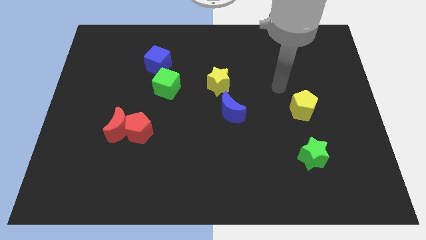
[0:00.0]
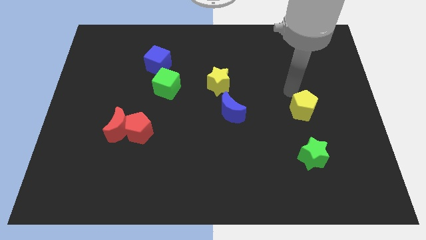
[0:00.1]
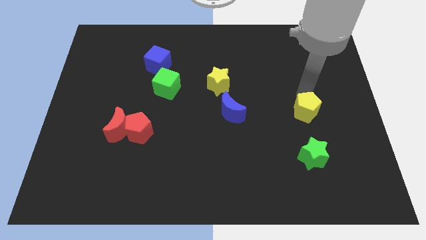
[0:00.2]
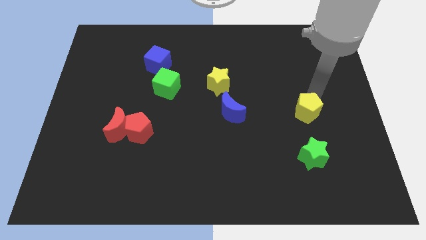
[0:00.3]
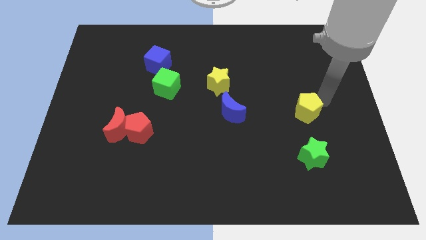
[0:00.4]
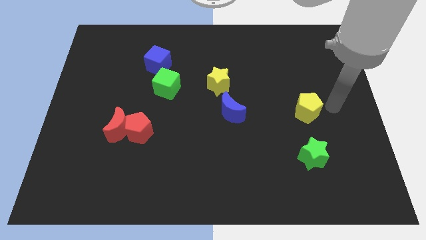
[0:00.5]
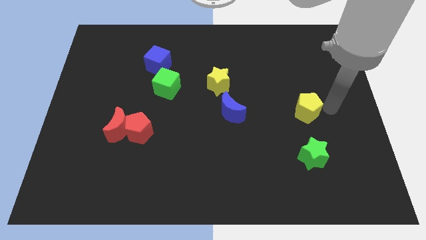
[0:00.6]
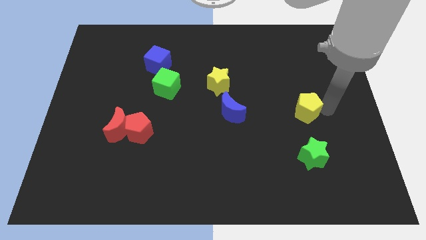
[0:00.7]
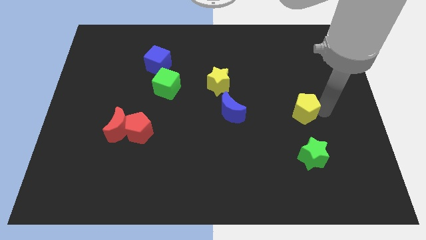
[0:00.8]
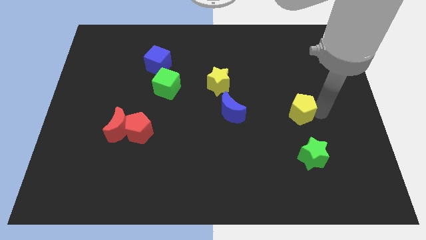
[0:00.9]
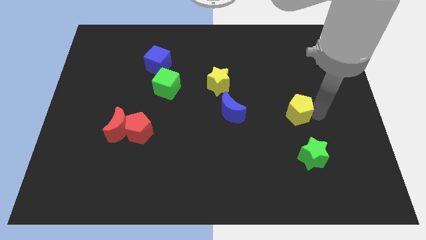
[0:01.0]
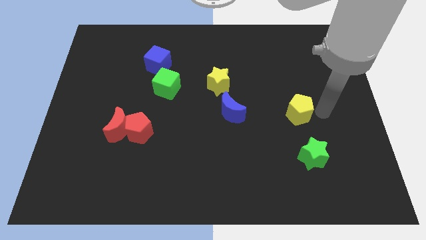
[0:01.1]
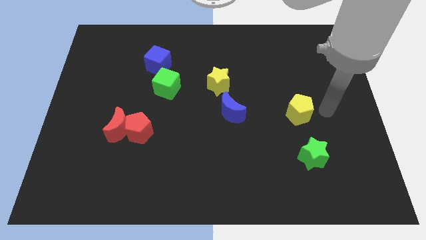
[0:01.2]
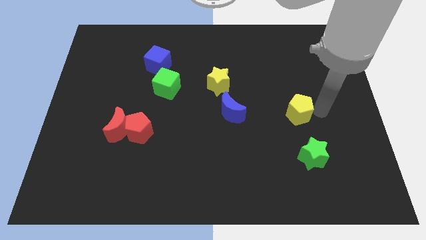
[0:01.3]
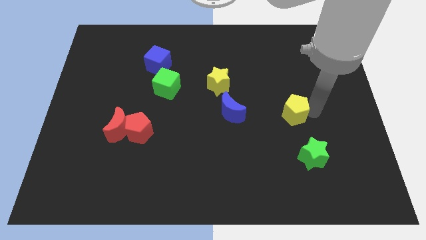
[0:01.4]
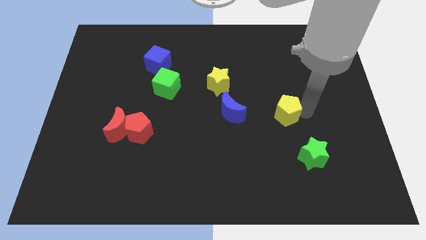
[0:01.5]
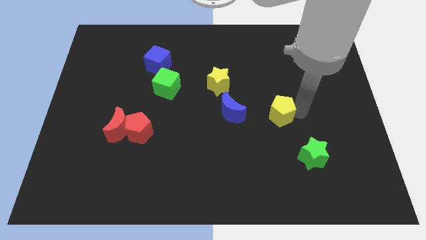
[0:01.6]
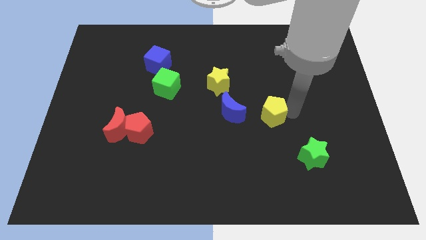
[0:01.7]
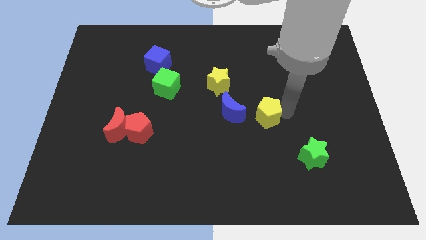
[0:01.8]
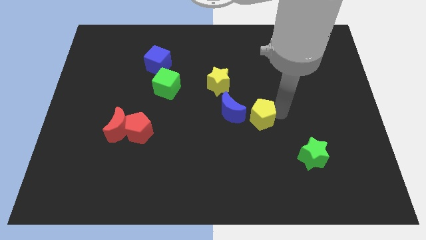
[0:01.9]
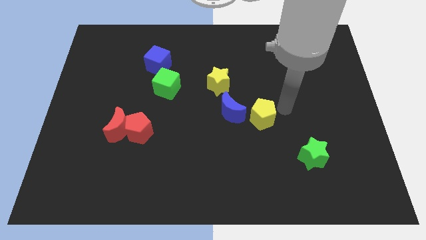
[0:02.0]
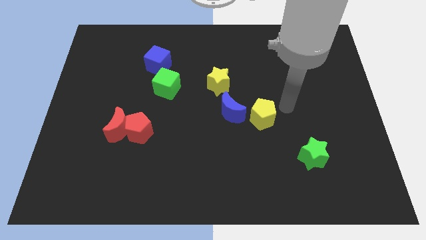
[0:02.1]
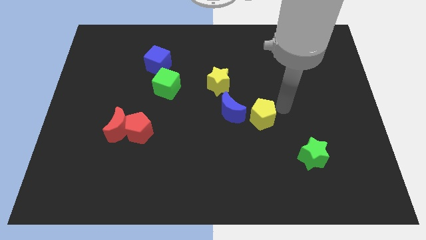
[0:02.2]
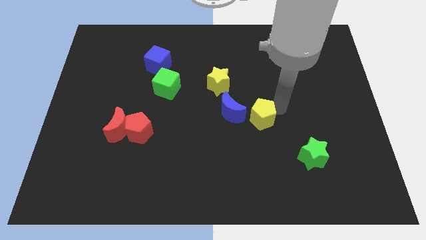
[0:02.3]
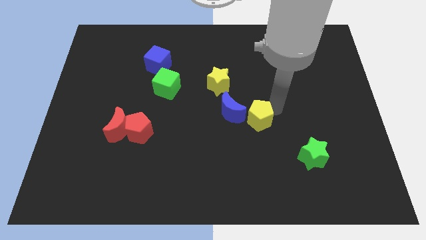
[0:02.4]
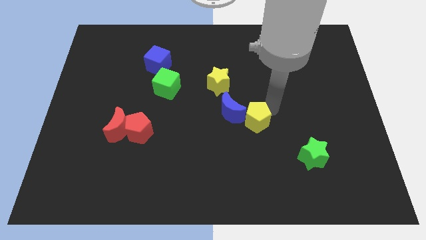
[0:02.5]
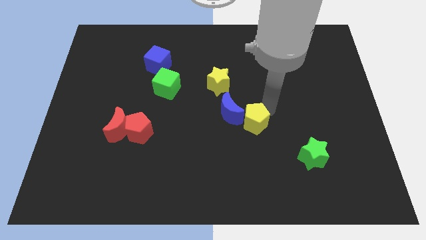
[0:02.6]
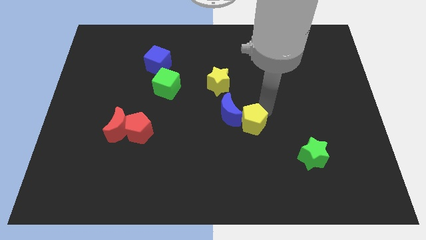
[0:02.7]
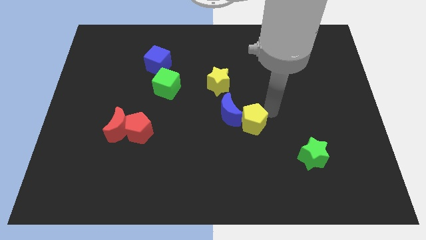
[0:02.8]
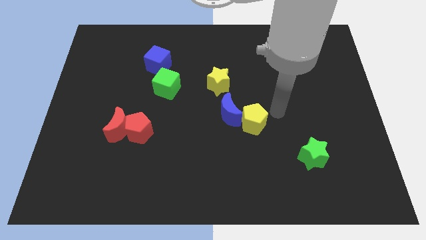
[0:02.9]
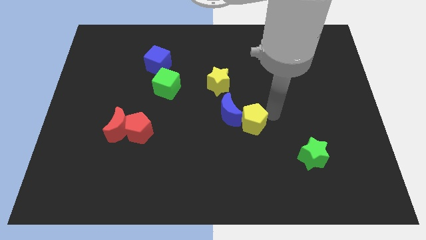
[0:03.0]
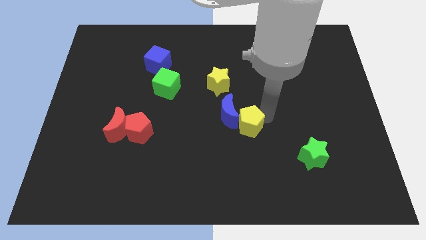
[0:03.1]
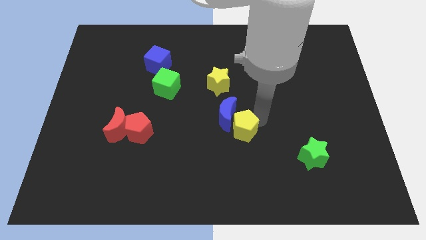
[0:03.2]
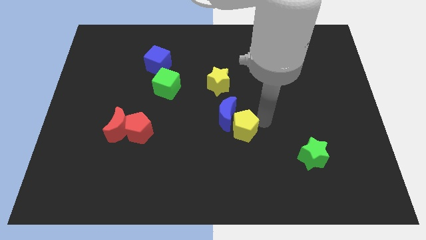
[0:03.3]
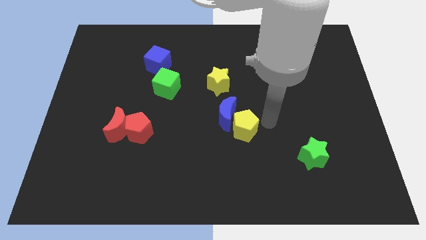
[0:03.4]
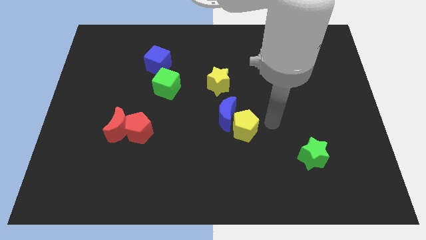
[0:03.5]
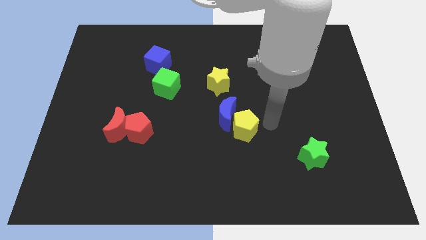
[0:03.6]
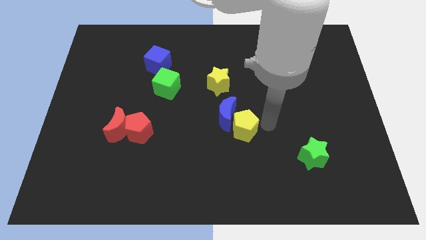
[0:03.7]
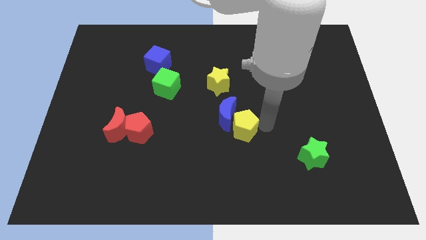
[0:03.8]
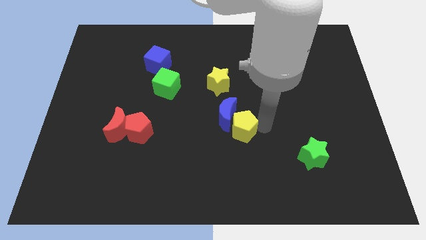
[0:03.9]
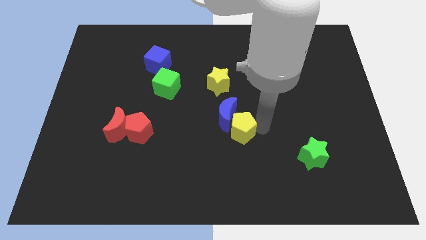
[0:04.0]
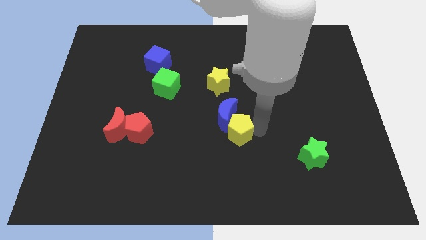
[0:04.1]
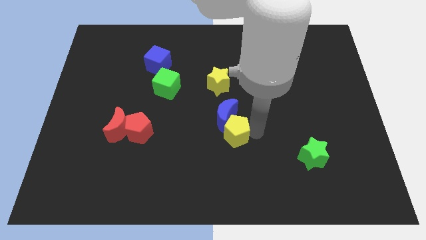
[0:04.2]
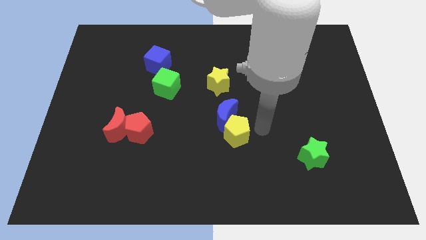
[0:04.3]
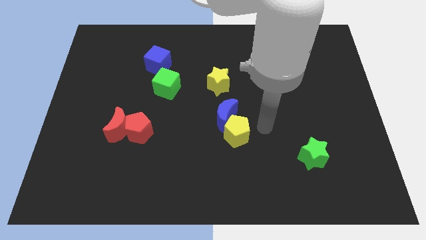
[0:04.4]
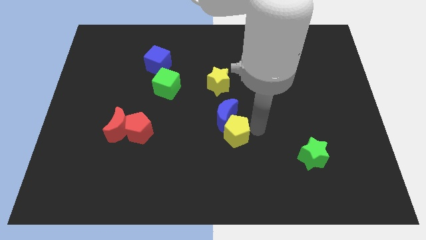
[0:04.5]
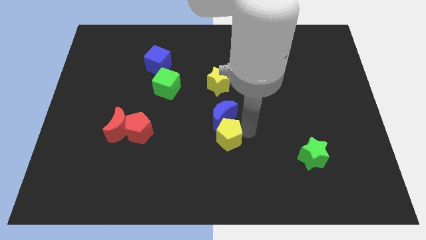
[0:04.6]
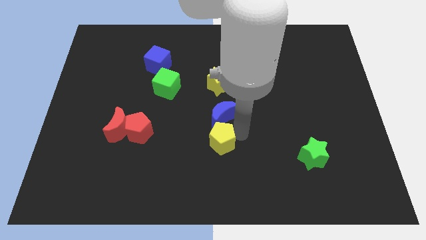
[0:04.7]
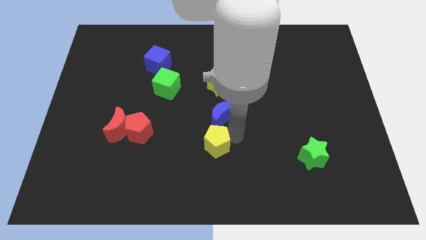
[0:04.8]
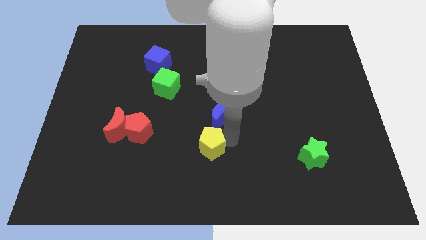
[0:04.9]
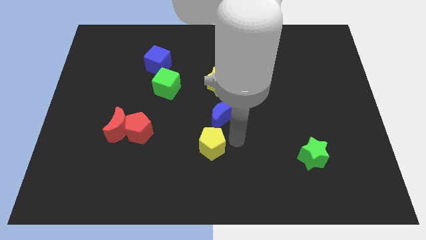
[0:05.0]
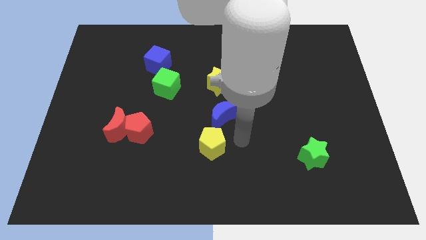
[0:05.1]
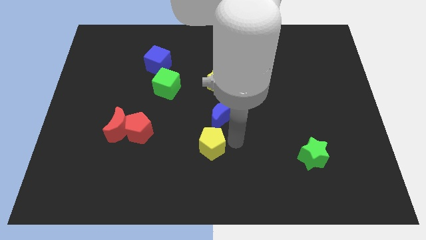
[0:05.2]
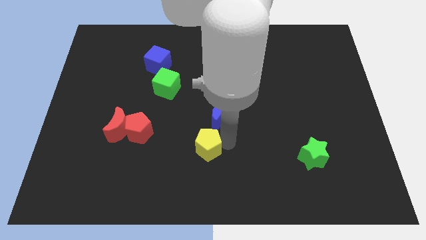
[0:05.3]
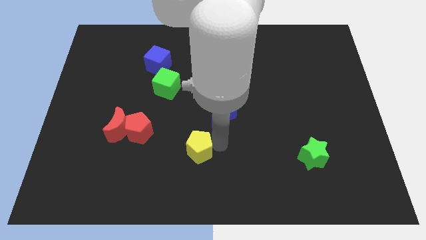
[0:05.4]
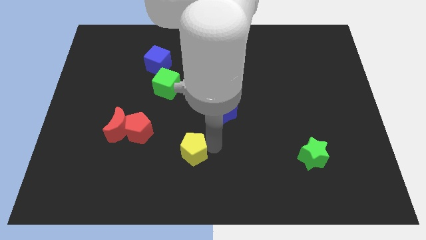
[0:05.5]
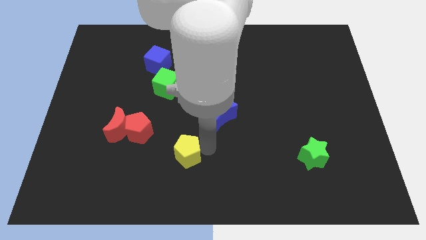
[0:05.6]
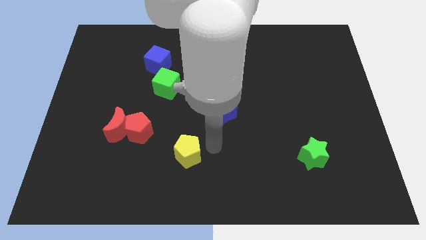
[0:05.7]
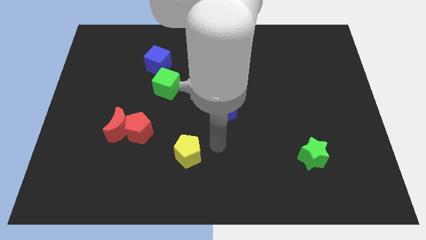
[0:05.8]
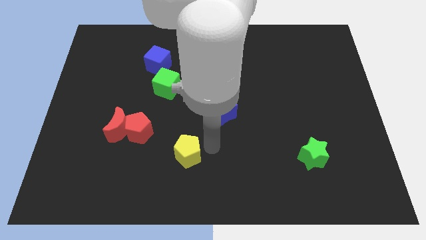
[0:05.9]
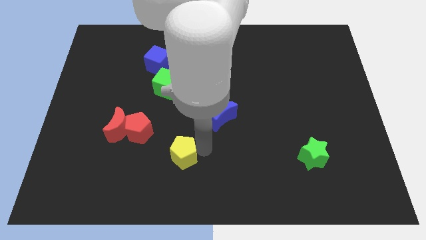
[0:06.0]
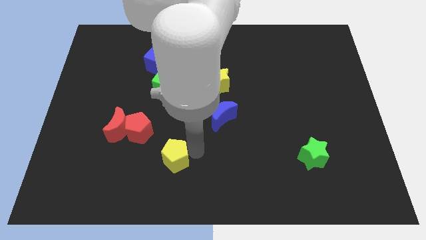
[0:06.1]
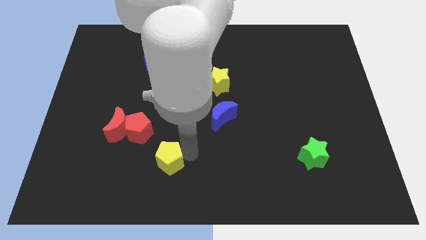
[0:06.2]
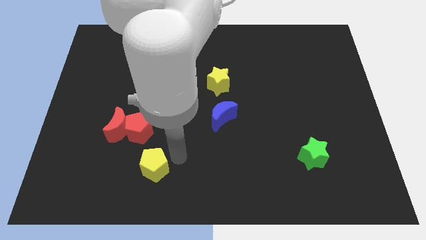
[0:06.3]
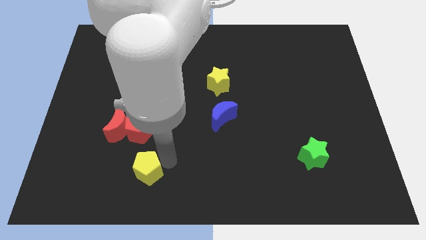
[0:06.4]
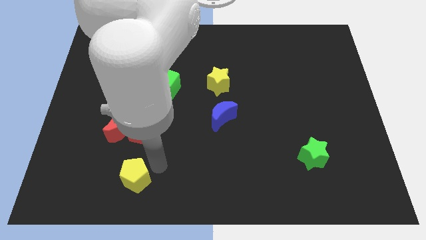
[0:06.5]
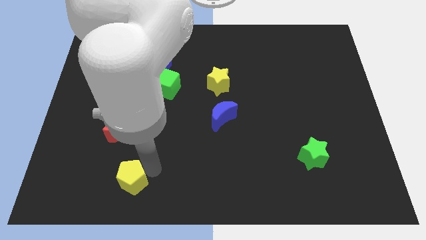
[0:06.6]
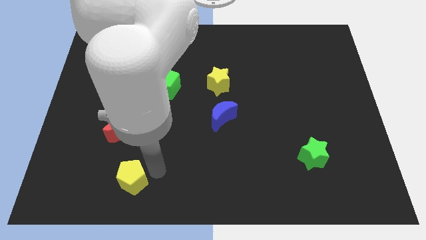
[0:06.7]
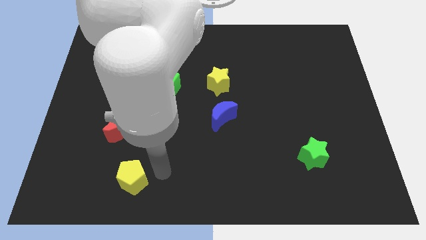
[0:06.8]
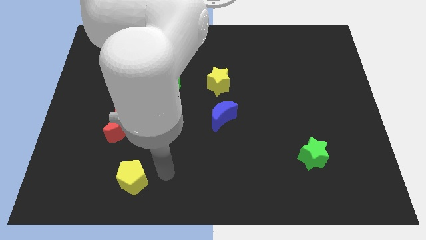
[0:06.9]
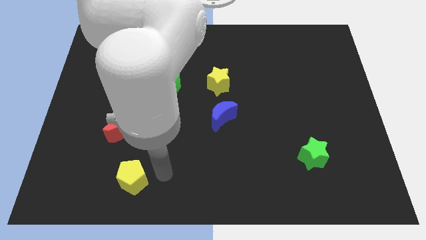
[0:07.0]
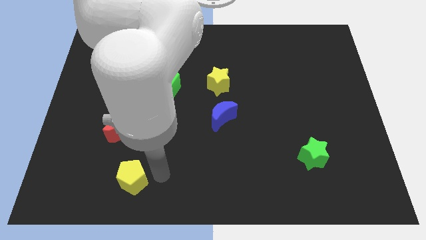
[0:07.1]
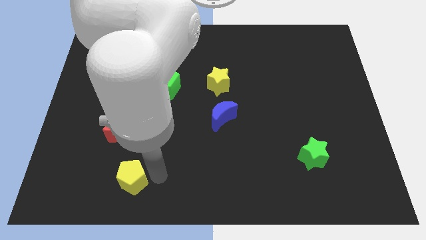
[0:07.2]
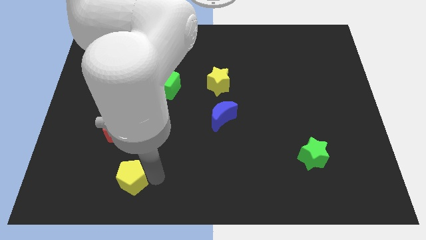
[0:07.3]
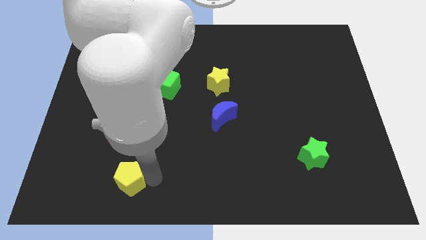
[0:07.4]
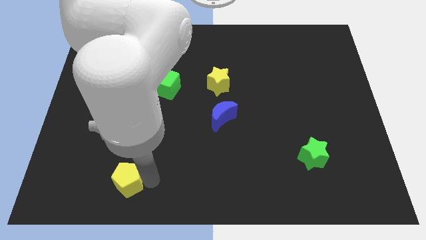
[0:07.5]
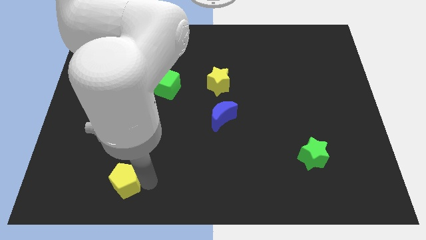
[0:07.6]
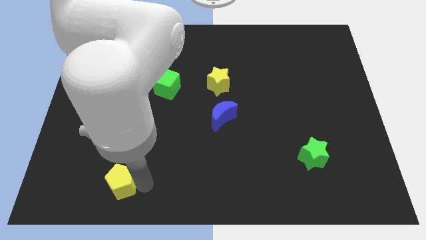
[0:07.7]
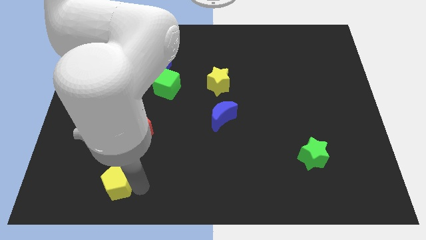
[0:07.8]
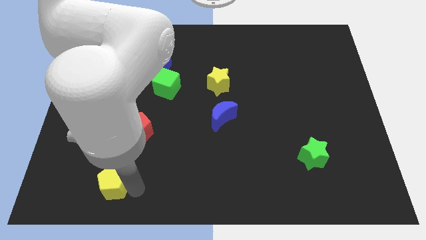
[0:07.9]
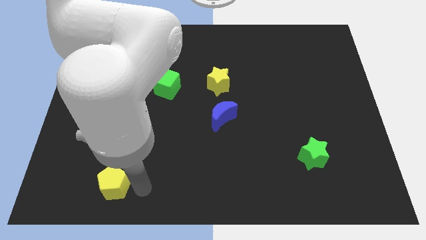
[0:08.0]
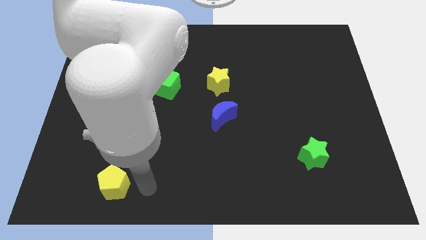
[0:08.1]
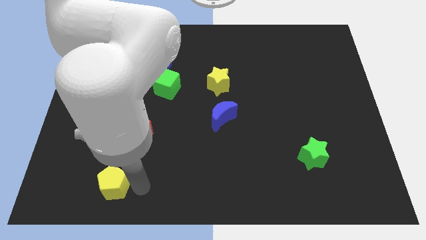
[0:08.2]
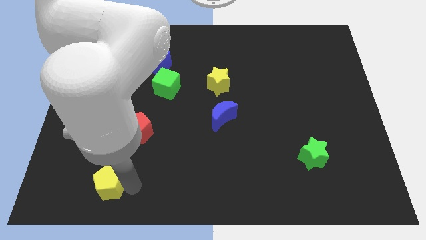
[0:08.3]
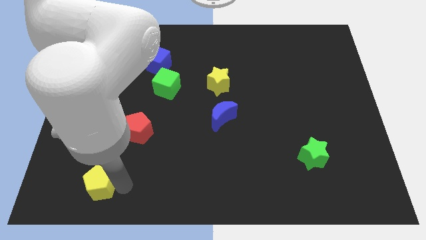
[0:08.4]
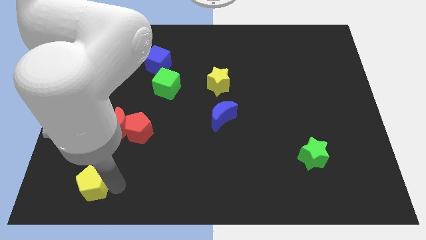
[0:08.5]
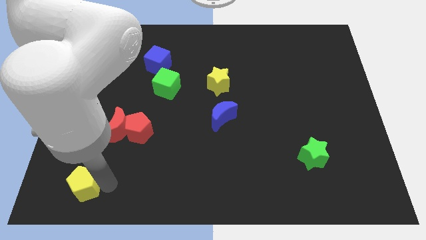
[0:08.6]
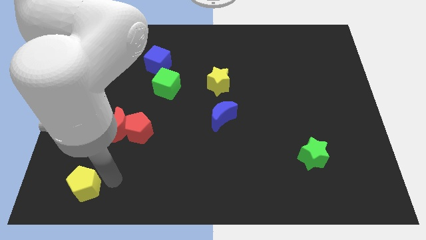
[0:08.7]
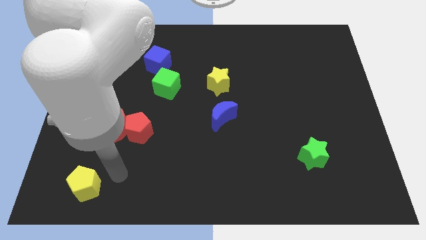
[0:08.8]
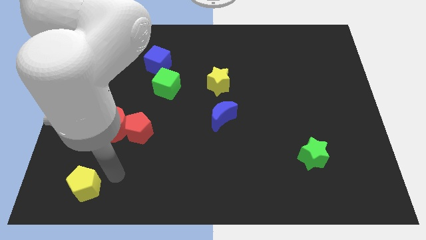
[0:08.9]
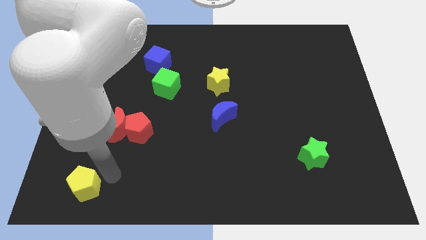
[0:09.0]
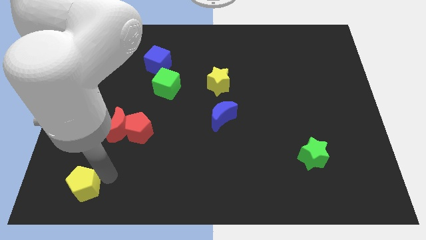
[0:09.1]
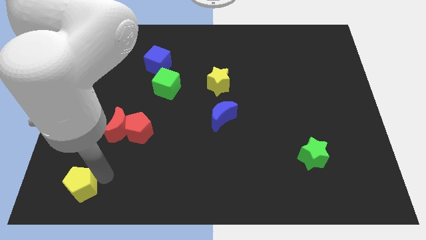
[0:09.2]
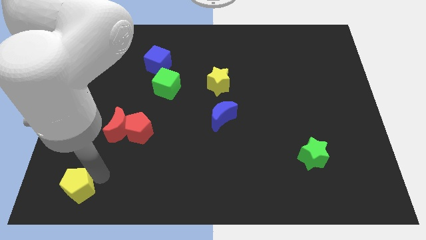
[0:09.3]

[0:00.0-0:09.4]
push the yellow pentagon to the lower left corner
